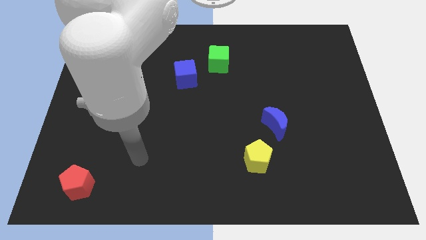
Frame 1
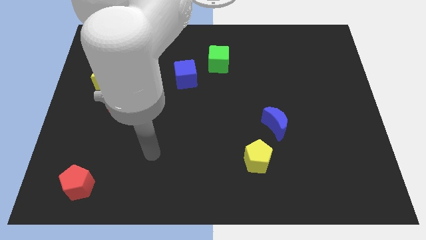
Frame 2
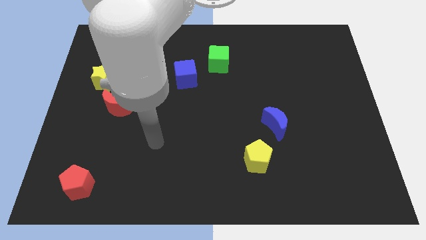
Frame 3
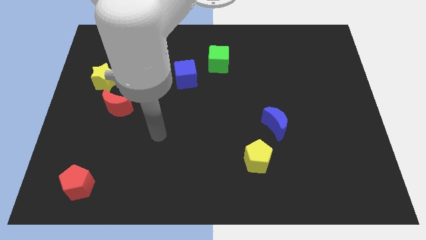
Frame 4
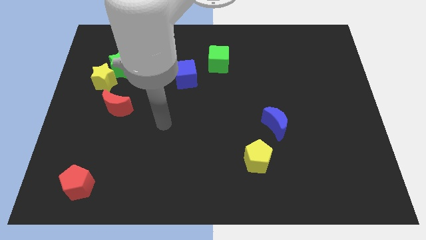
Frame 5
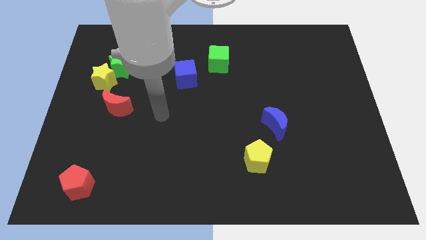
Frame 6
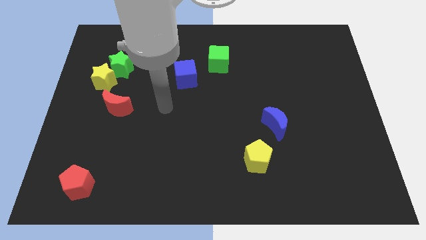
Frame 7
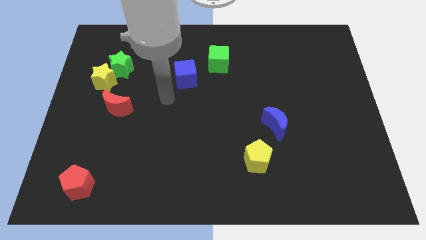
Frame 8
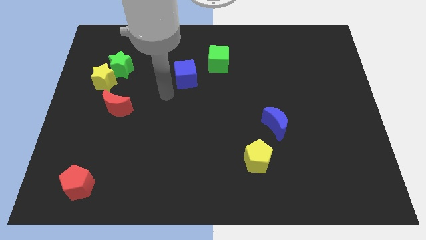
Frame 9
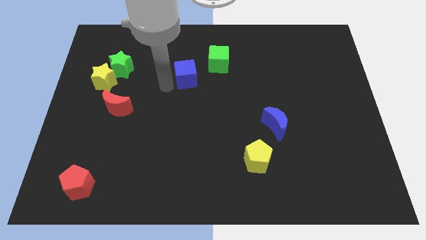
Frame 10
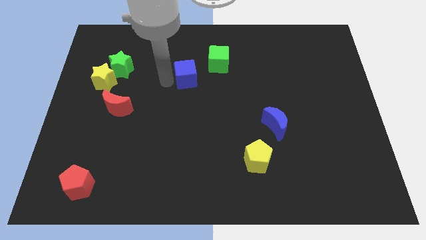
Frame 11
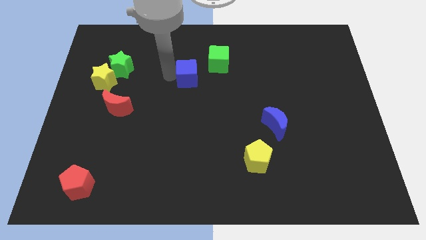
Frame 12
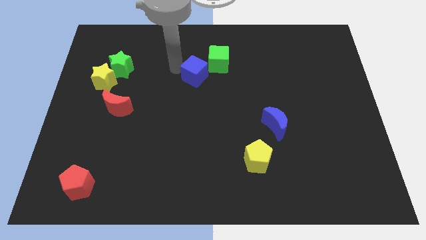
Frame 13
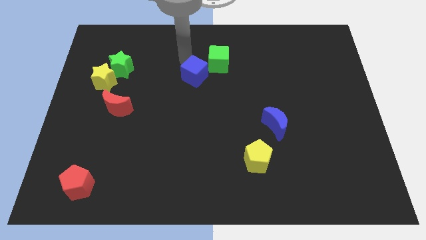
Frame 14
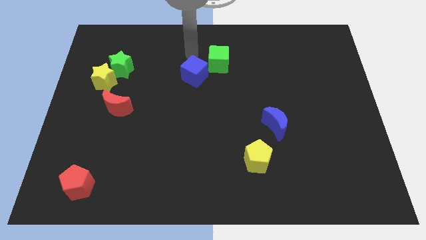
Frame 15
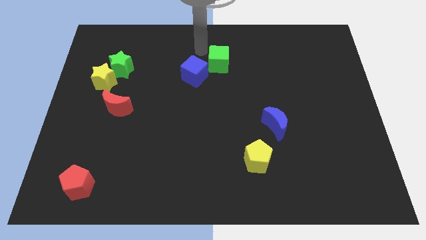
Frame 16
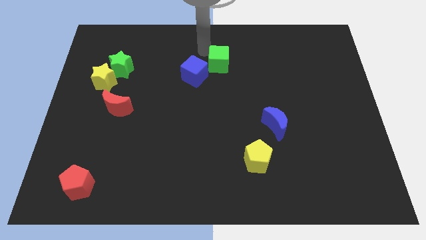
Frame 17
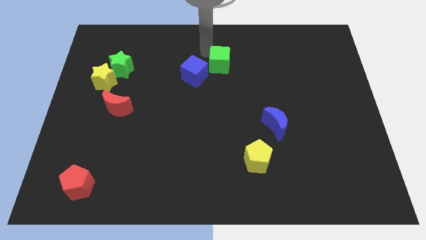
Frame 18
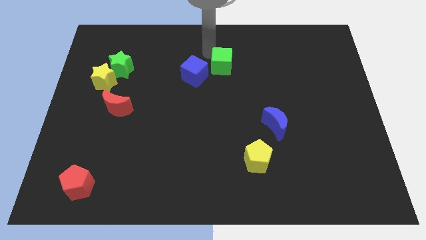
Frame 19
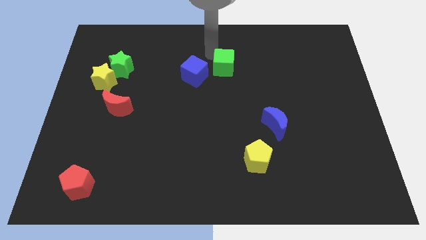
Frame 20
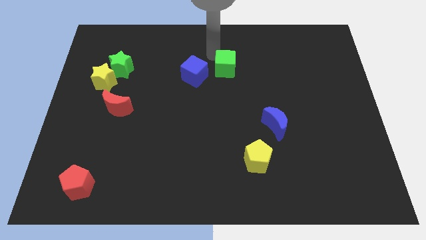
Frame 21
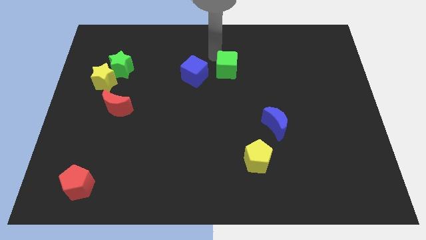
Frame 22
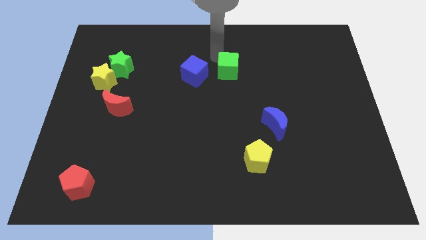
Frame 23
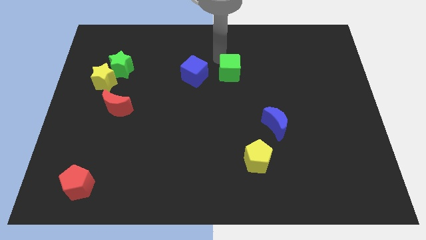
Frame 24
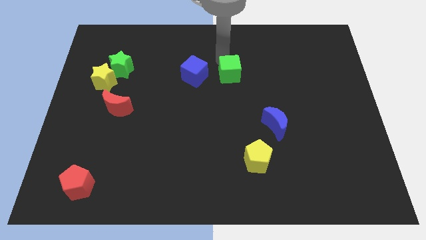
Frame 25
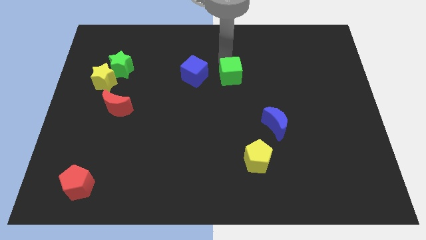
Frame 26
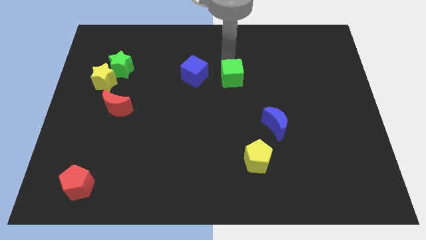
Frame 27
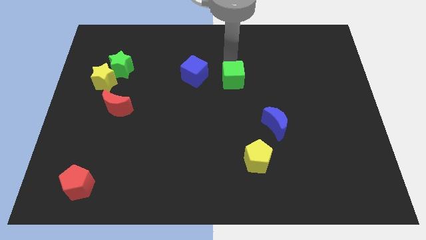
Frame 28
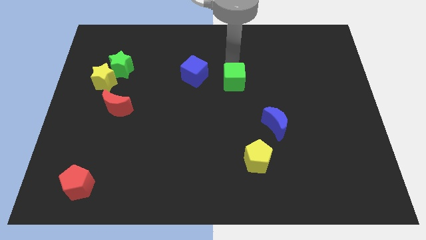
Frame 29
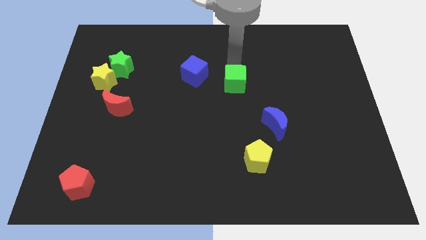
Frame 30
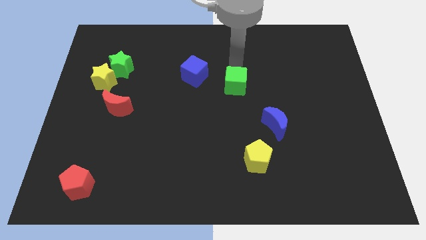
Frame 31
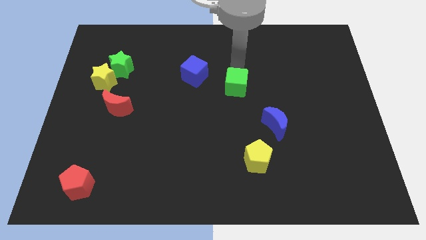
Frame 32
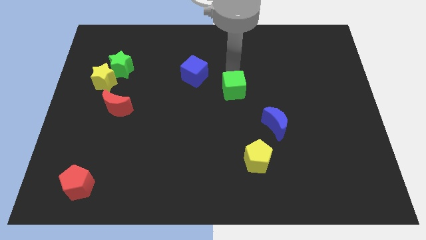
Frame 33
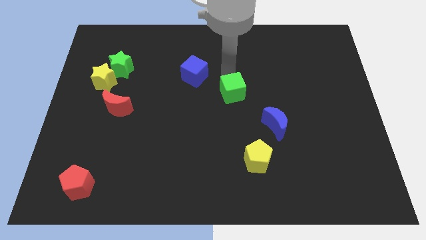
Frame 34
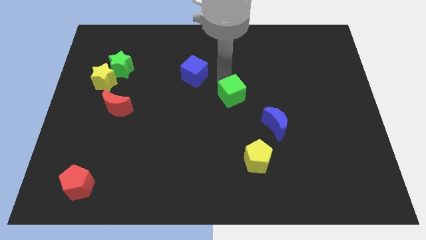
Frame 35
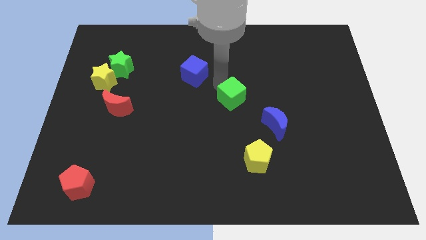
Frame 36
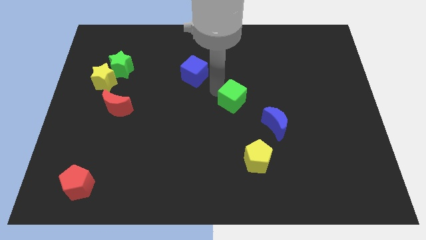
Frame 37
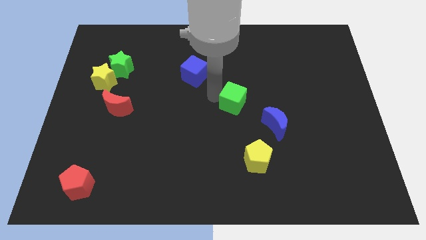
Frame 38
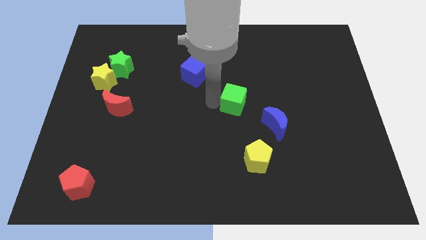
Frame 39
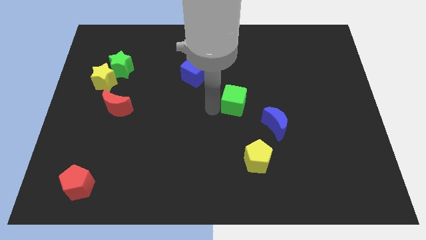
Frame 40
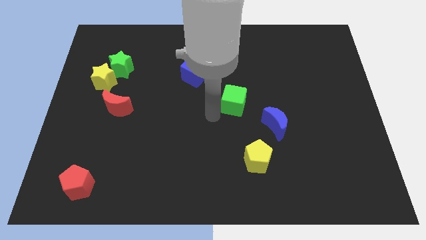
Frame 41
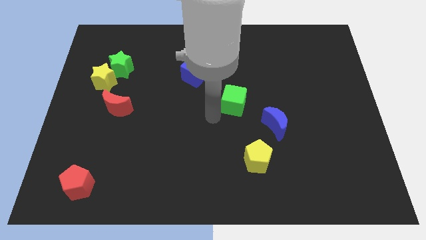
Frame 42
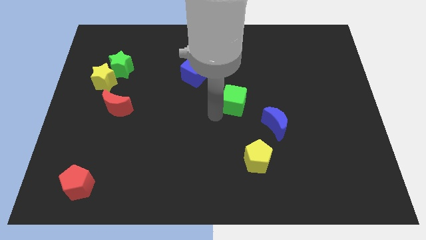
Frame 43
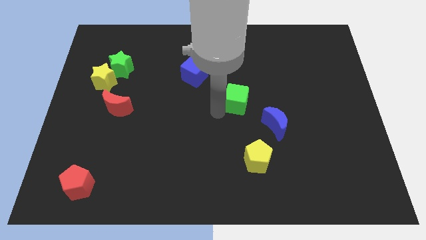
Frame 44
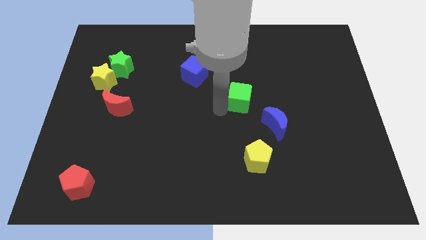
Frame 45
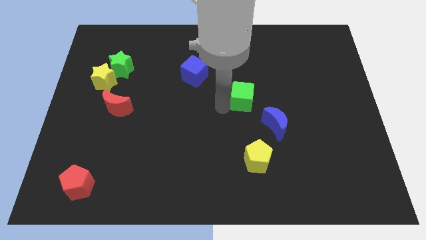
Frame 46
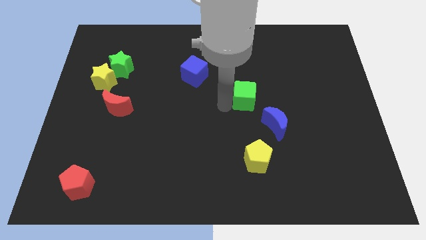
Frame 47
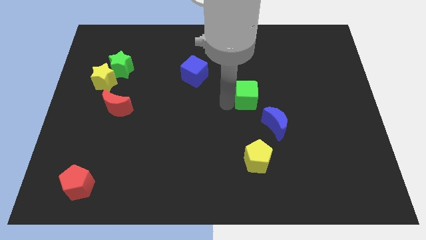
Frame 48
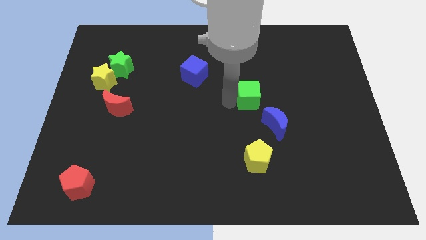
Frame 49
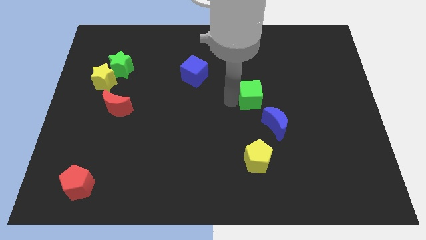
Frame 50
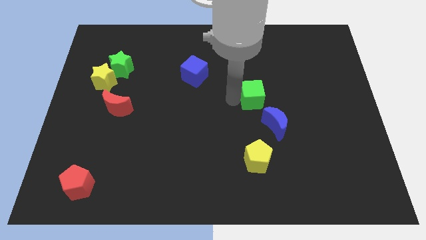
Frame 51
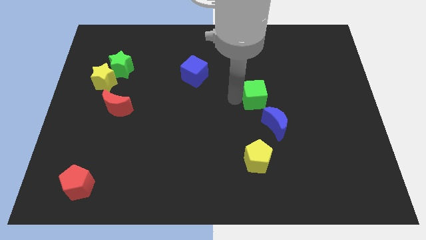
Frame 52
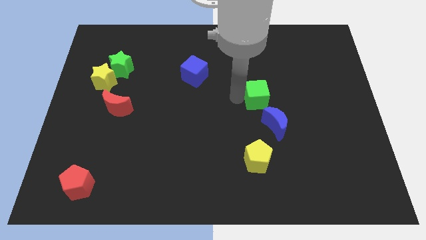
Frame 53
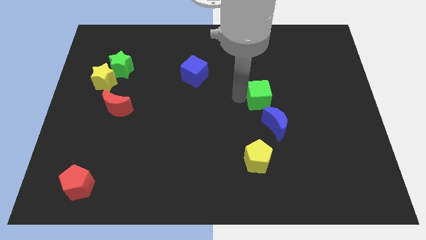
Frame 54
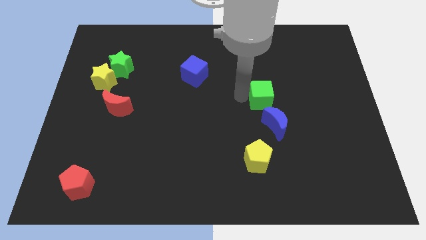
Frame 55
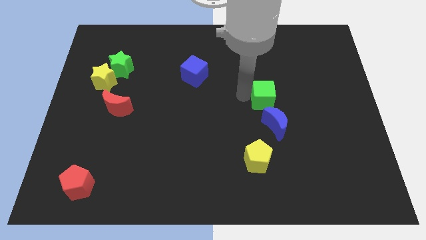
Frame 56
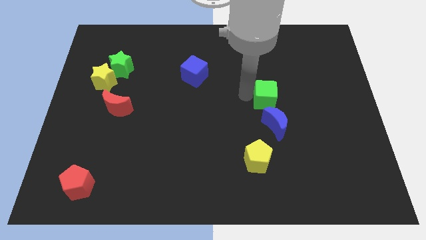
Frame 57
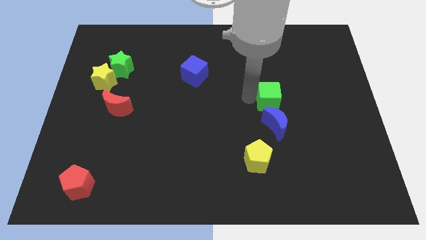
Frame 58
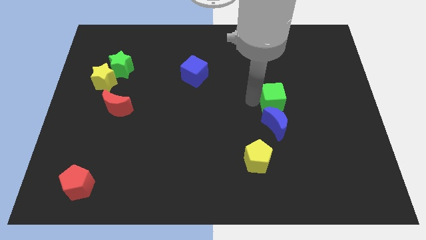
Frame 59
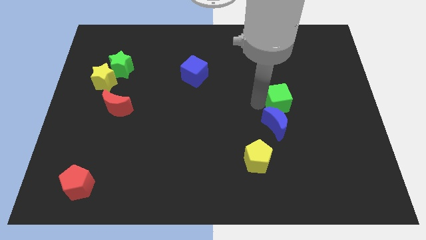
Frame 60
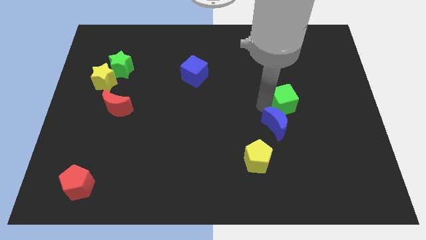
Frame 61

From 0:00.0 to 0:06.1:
push the green cube downwards and to the right diagonally

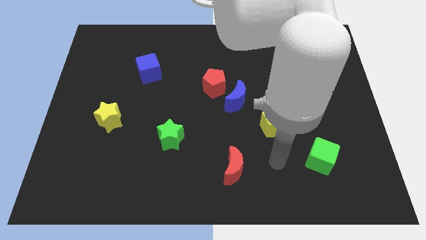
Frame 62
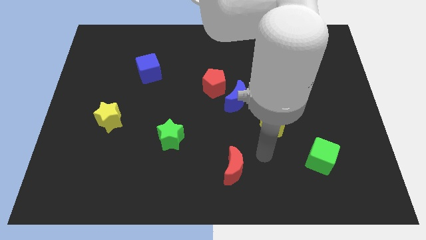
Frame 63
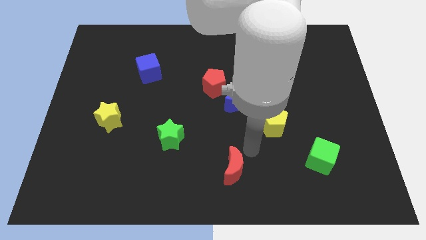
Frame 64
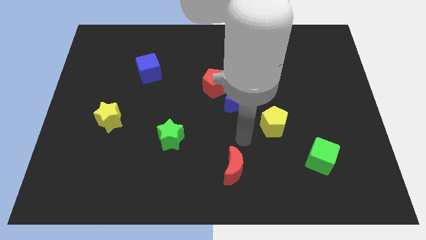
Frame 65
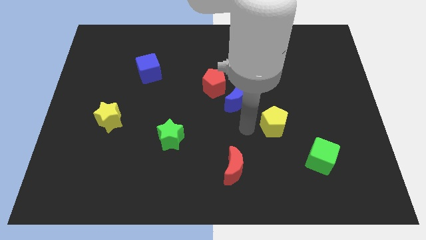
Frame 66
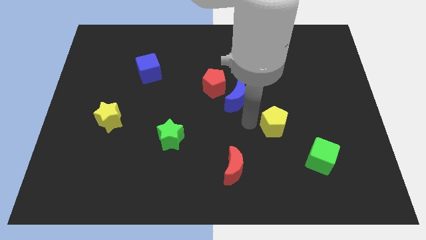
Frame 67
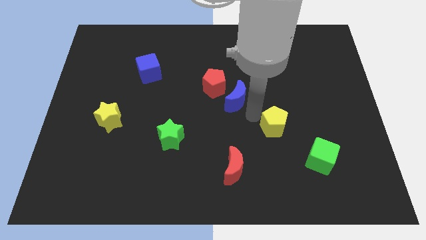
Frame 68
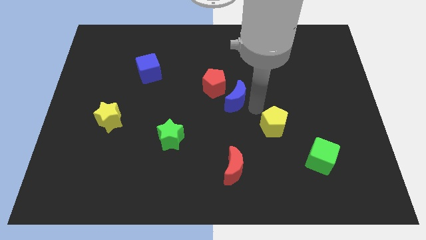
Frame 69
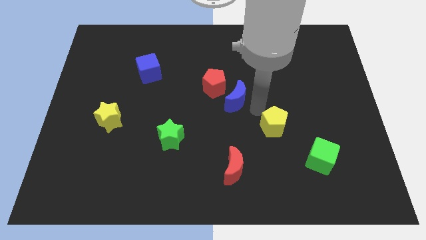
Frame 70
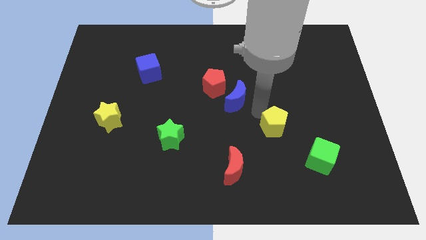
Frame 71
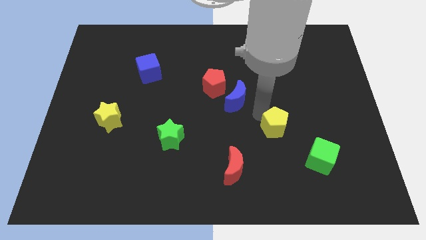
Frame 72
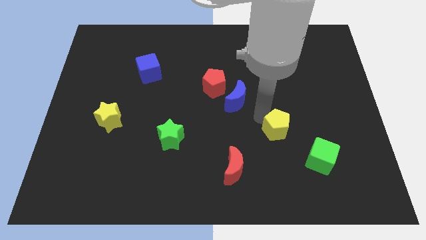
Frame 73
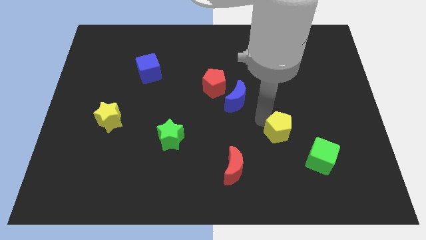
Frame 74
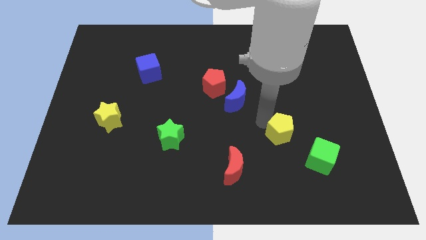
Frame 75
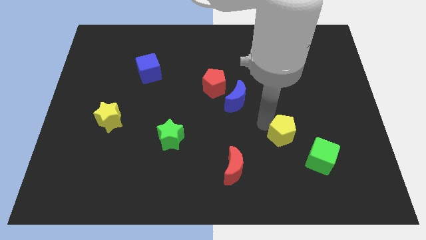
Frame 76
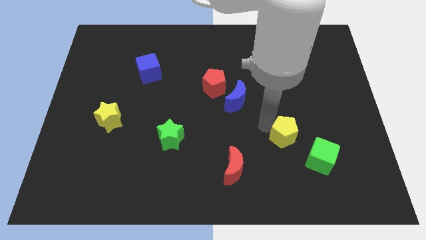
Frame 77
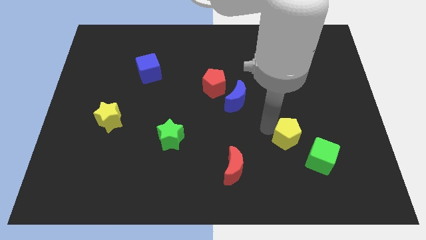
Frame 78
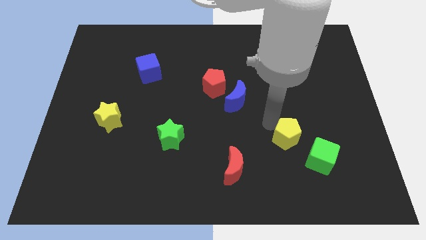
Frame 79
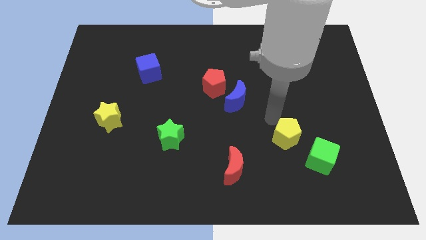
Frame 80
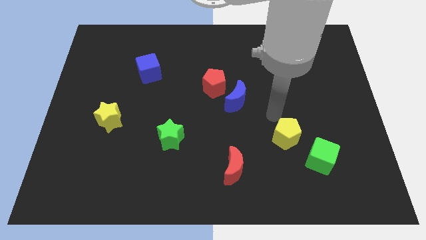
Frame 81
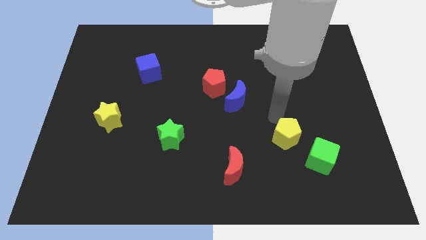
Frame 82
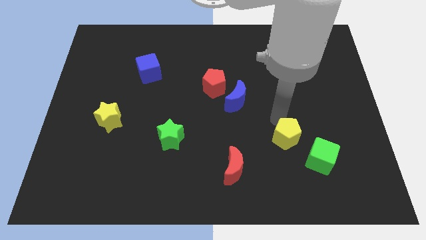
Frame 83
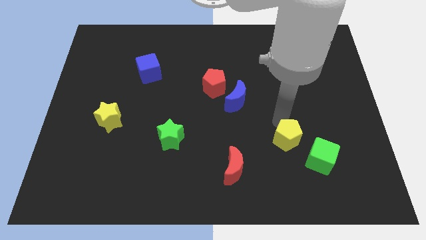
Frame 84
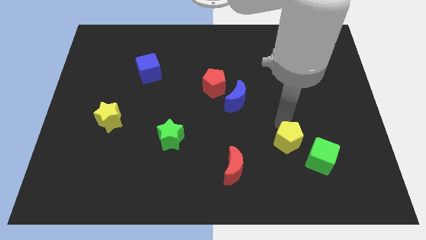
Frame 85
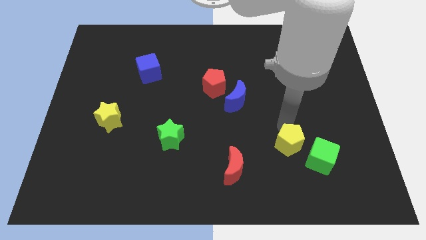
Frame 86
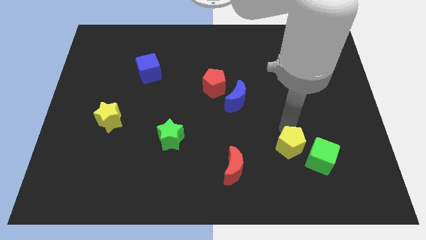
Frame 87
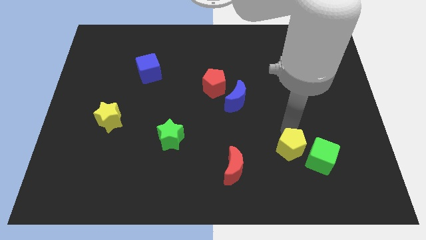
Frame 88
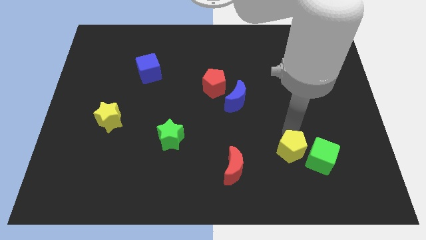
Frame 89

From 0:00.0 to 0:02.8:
push the yellow pentagon slightly downwards and to the right
